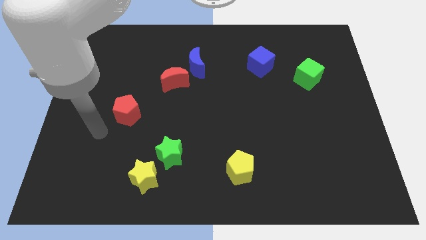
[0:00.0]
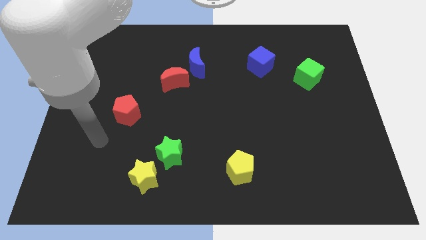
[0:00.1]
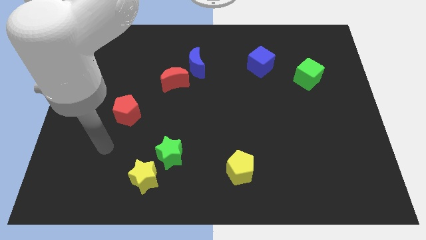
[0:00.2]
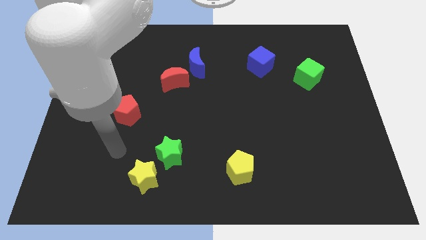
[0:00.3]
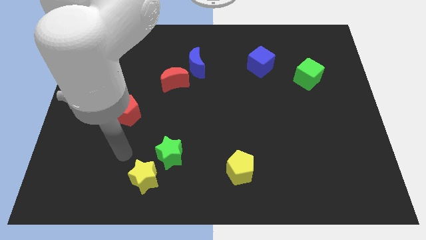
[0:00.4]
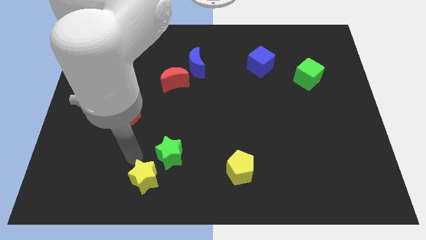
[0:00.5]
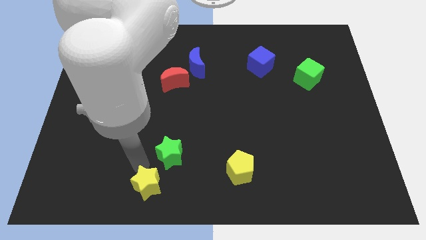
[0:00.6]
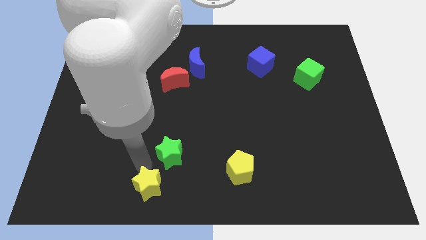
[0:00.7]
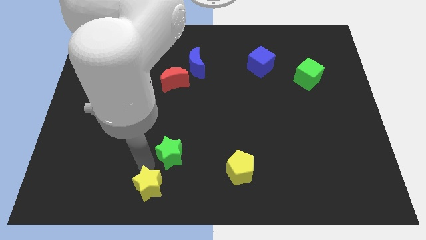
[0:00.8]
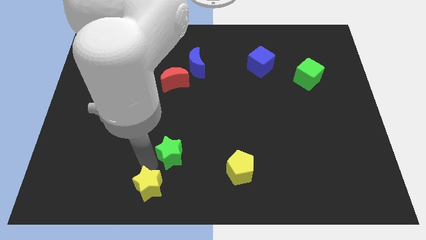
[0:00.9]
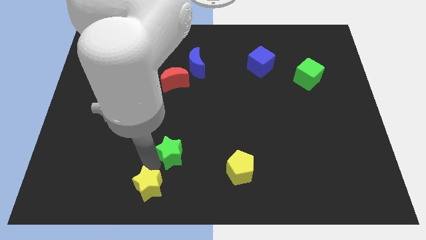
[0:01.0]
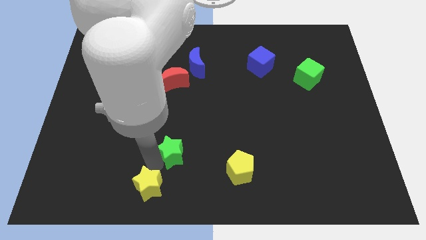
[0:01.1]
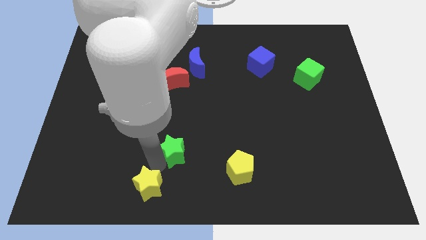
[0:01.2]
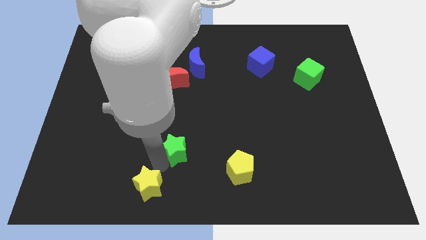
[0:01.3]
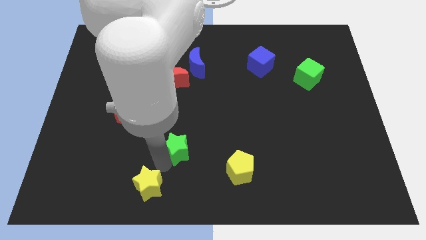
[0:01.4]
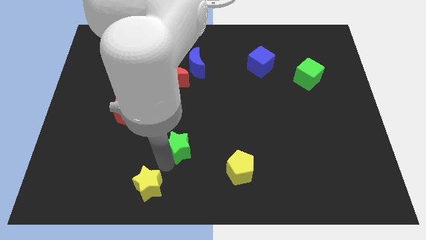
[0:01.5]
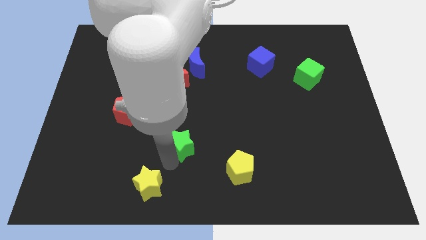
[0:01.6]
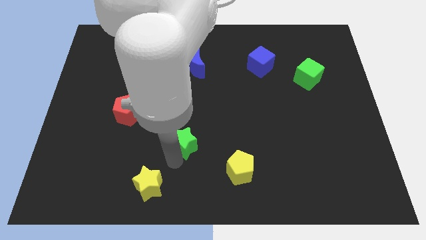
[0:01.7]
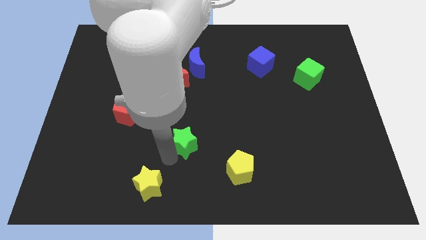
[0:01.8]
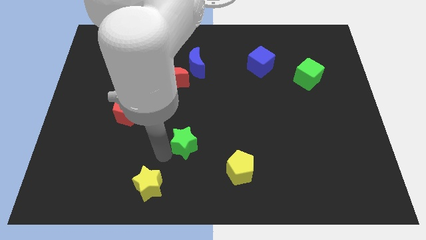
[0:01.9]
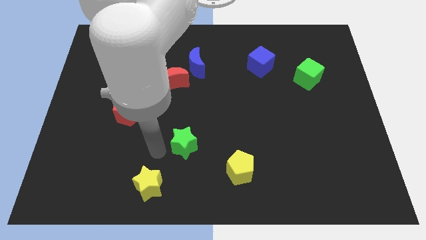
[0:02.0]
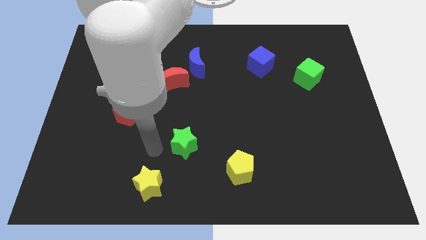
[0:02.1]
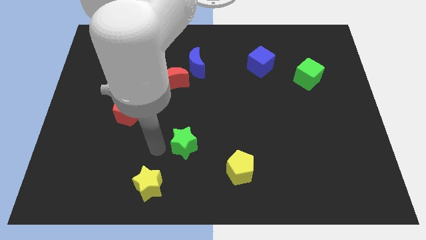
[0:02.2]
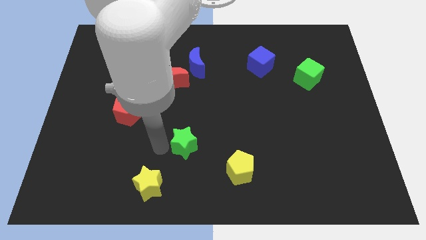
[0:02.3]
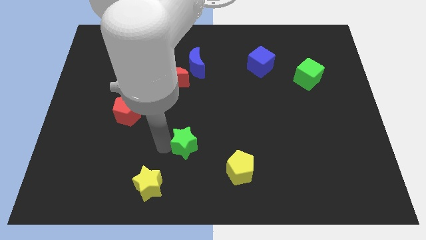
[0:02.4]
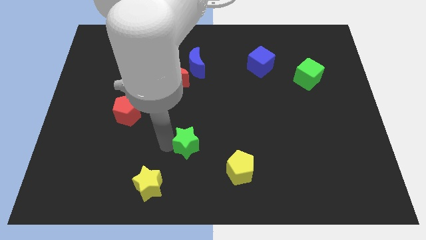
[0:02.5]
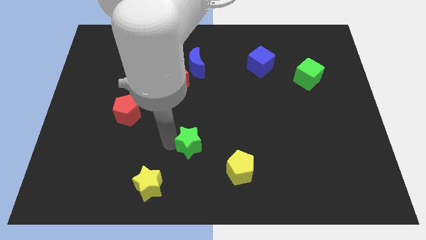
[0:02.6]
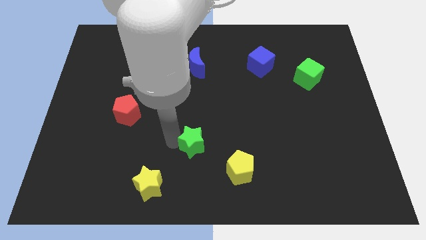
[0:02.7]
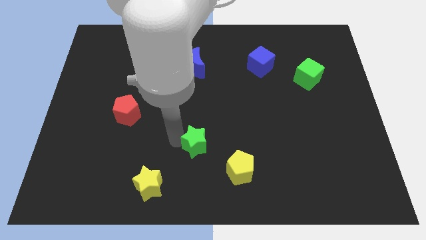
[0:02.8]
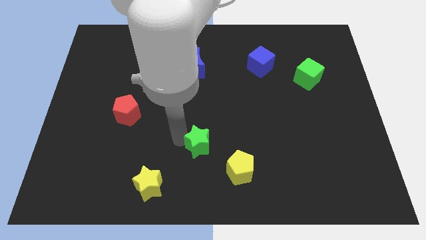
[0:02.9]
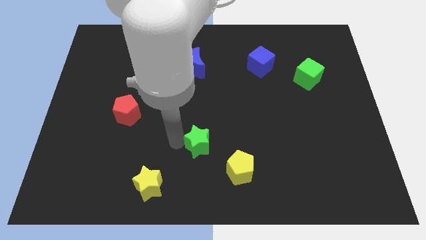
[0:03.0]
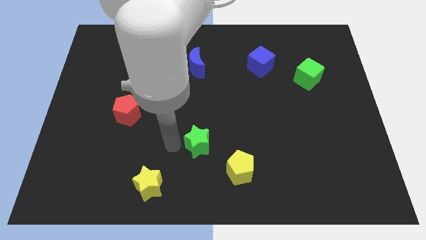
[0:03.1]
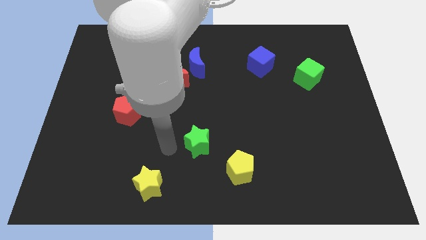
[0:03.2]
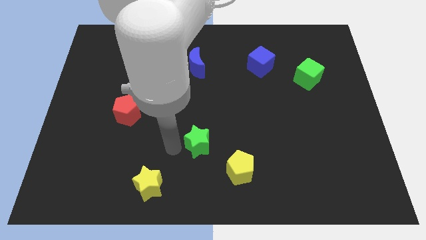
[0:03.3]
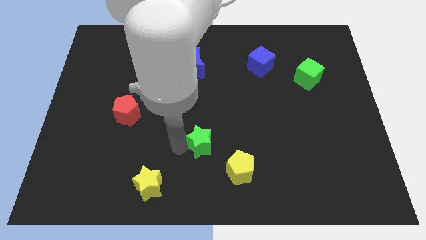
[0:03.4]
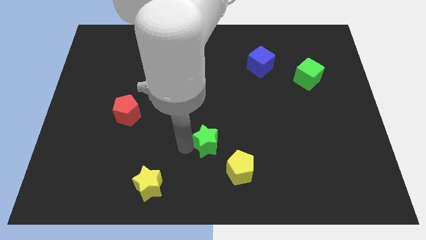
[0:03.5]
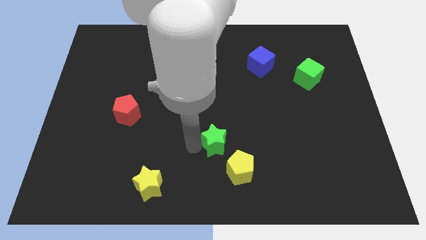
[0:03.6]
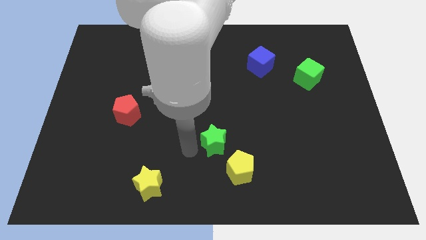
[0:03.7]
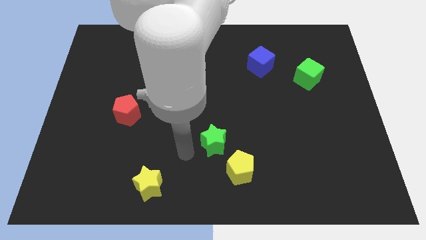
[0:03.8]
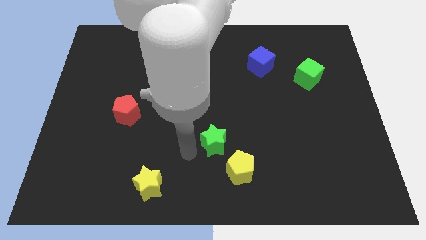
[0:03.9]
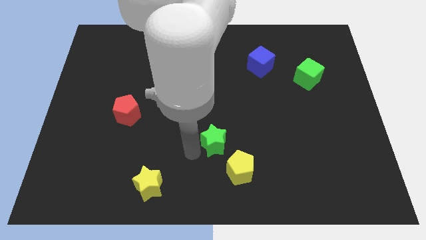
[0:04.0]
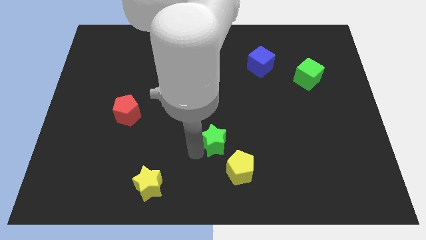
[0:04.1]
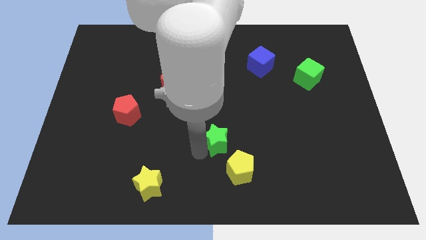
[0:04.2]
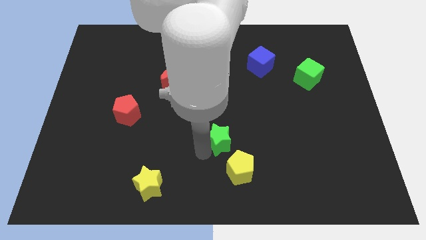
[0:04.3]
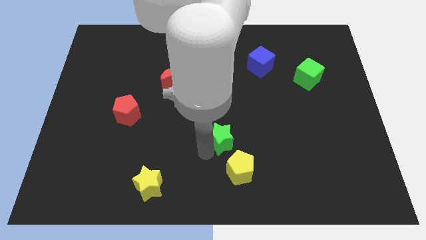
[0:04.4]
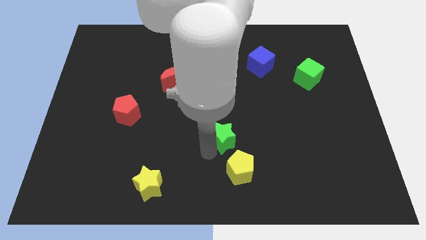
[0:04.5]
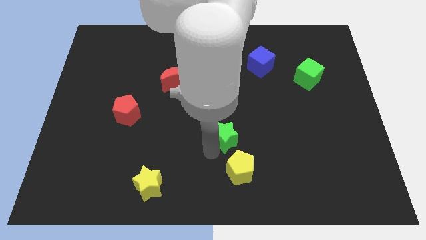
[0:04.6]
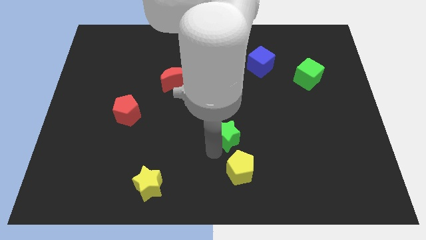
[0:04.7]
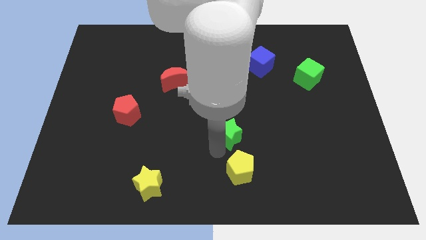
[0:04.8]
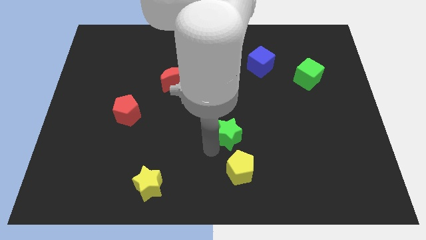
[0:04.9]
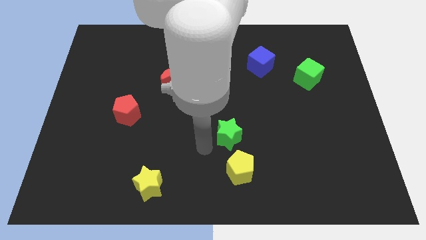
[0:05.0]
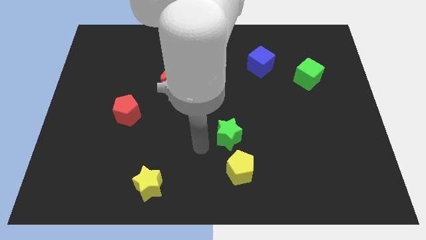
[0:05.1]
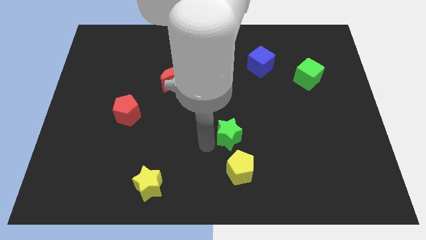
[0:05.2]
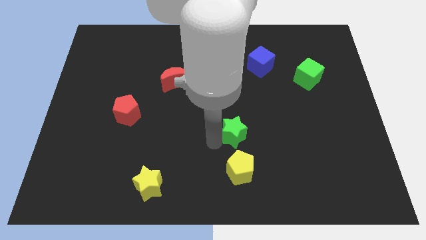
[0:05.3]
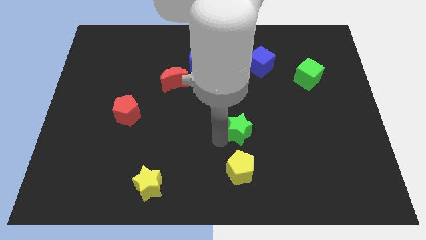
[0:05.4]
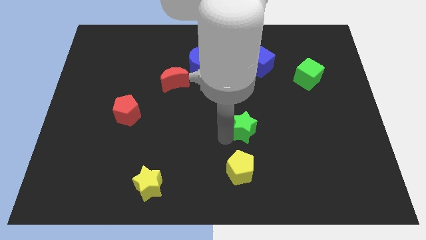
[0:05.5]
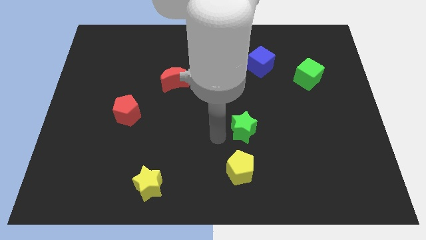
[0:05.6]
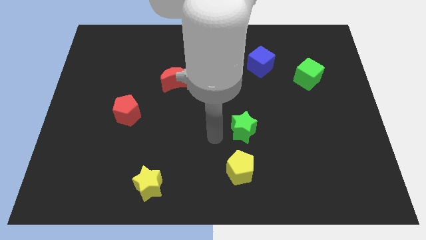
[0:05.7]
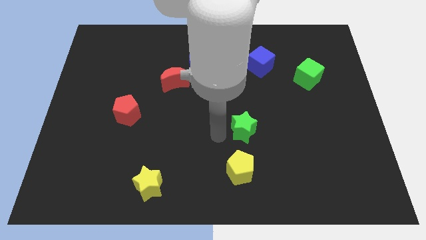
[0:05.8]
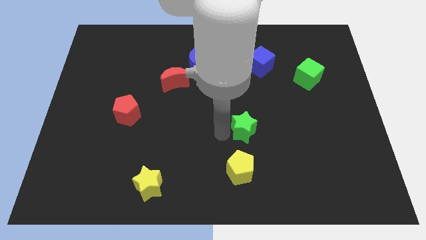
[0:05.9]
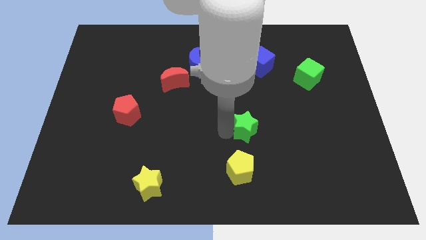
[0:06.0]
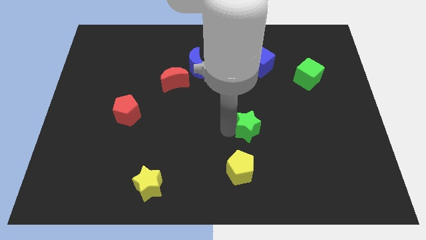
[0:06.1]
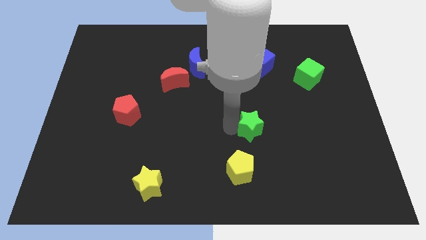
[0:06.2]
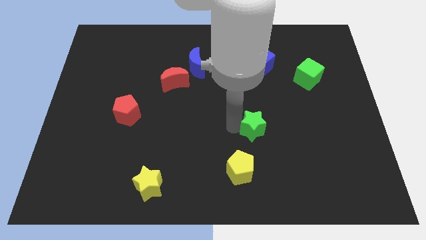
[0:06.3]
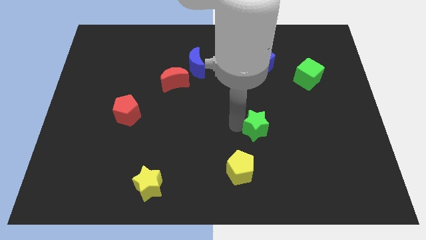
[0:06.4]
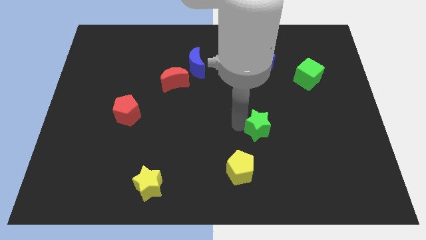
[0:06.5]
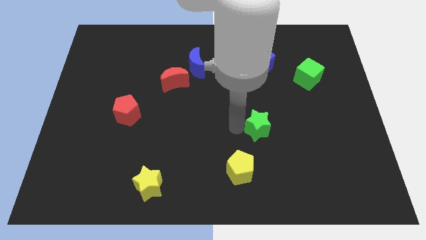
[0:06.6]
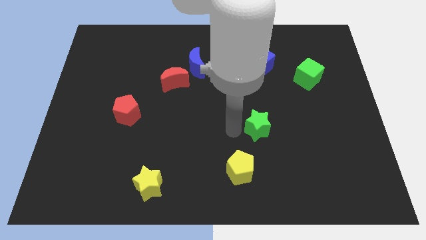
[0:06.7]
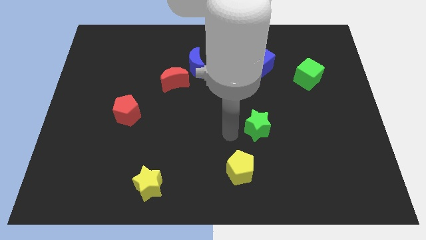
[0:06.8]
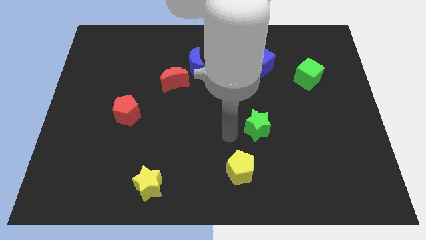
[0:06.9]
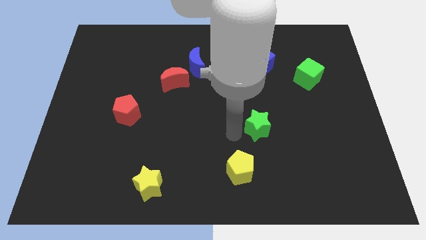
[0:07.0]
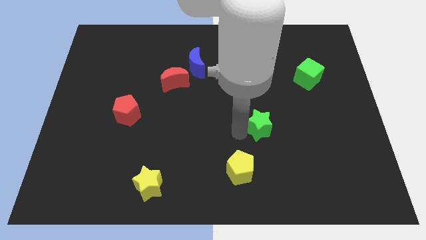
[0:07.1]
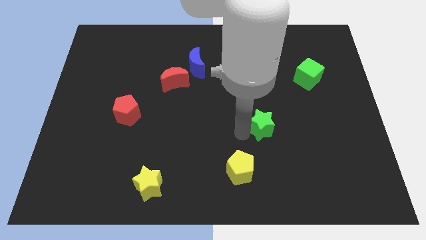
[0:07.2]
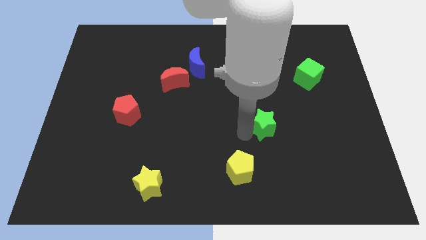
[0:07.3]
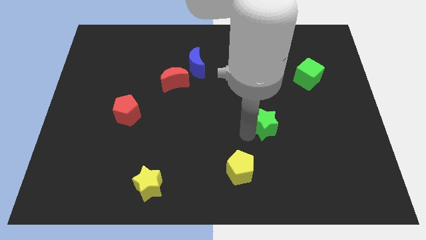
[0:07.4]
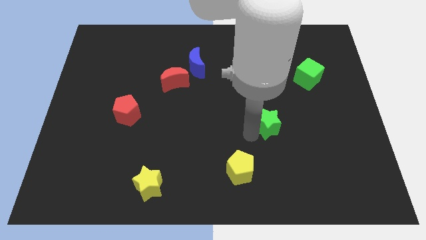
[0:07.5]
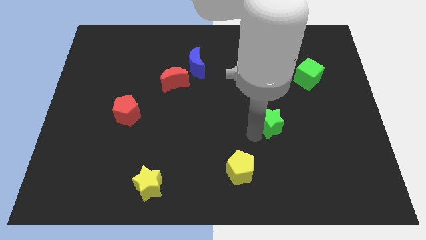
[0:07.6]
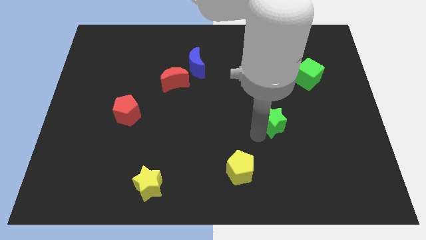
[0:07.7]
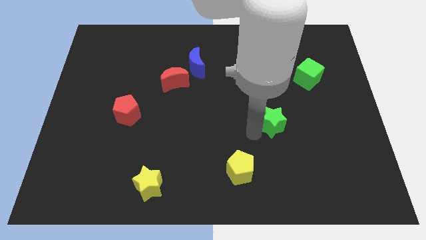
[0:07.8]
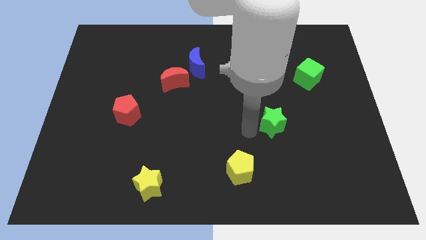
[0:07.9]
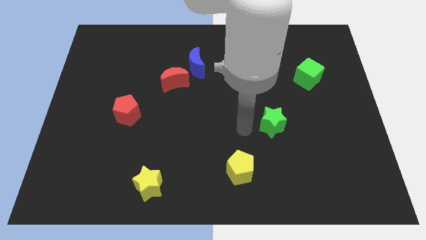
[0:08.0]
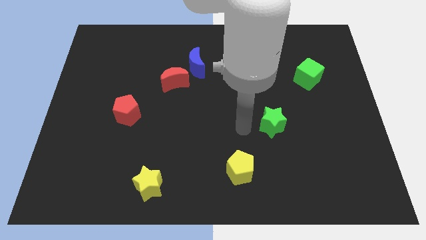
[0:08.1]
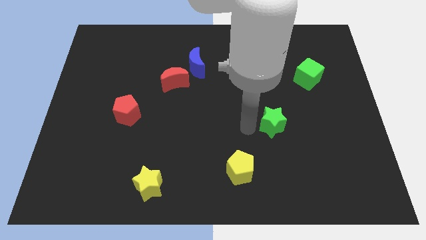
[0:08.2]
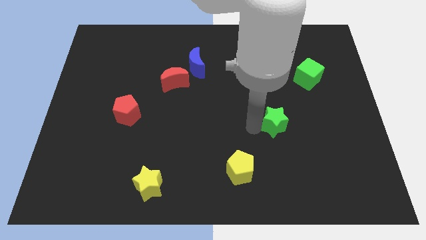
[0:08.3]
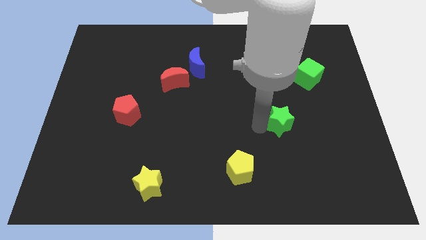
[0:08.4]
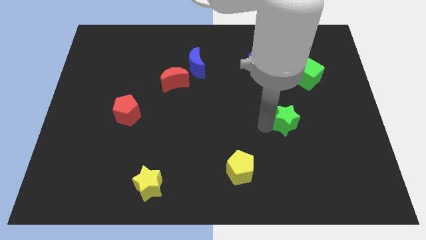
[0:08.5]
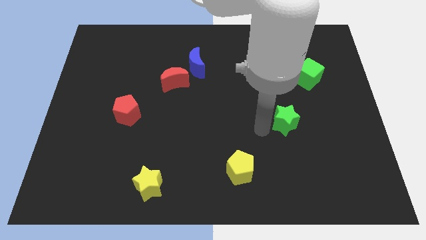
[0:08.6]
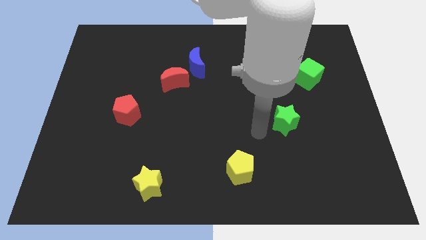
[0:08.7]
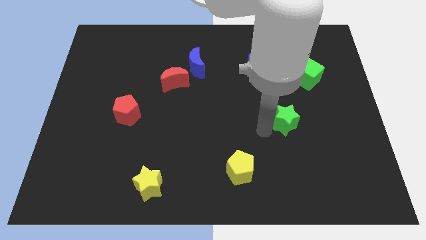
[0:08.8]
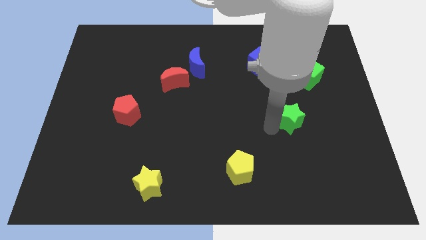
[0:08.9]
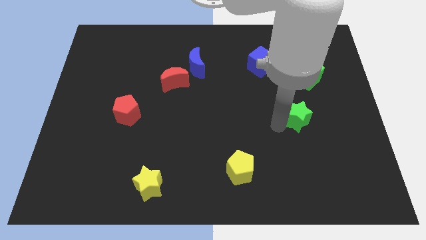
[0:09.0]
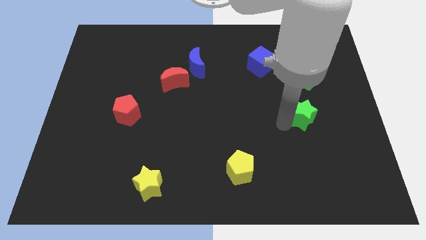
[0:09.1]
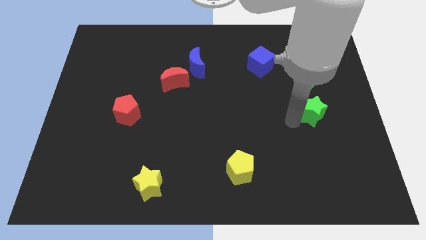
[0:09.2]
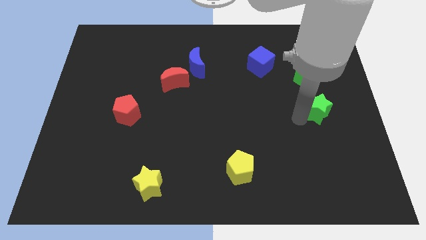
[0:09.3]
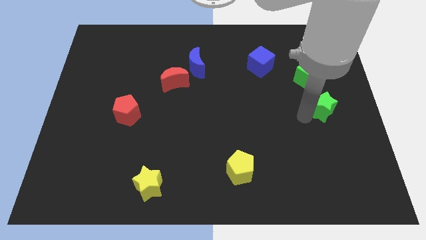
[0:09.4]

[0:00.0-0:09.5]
put the green star to the right side of the board
